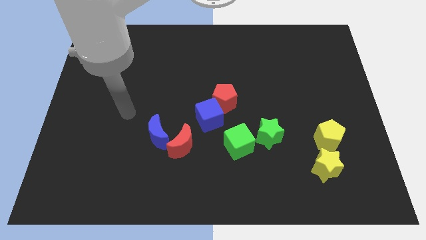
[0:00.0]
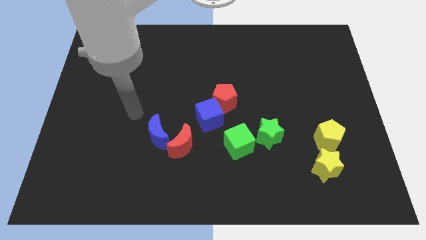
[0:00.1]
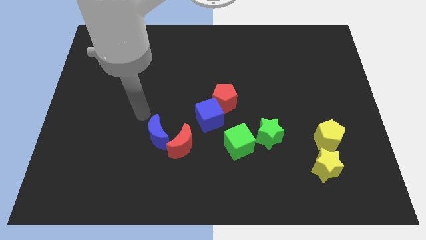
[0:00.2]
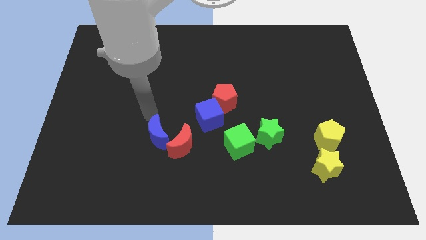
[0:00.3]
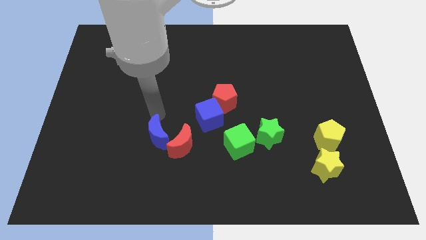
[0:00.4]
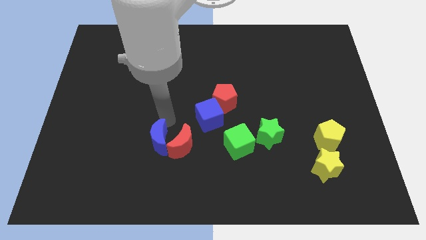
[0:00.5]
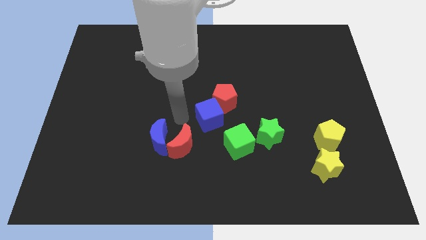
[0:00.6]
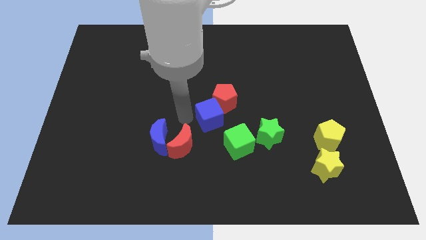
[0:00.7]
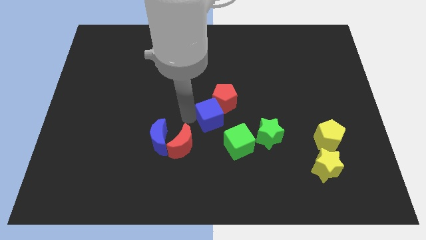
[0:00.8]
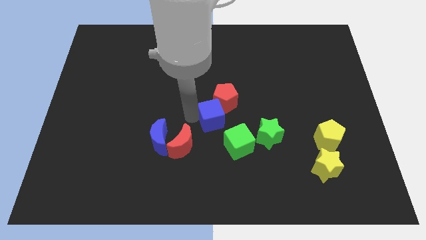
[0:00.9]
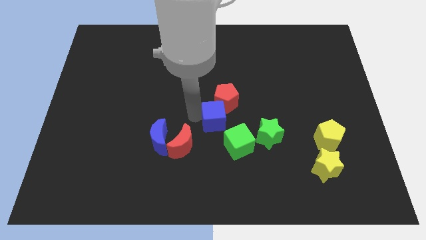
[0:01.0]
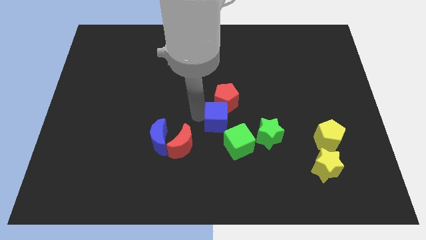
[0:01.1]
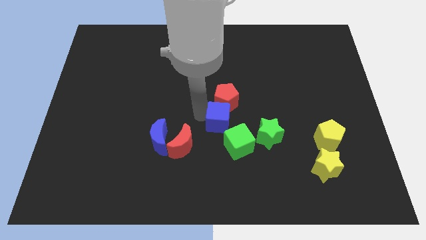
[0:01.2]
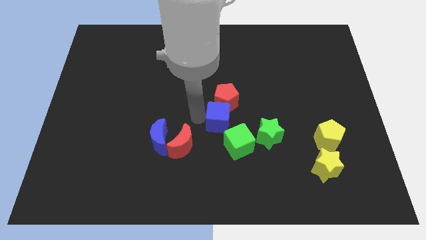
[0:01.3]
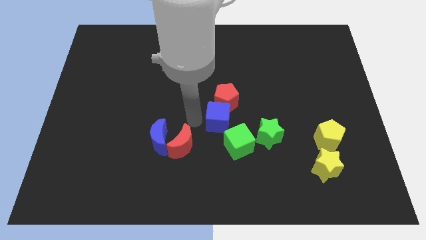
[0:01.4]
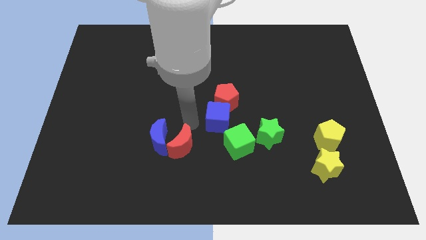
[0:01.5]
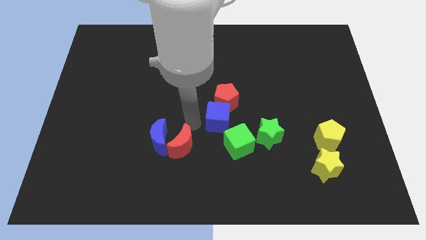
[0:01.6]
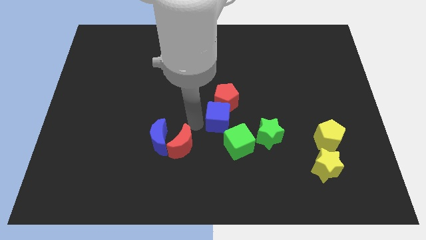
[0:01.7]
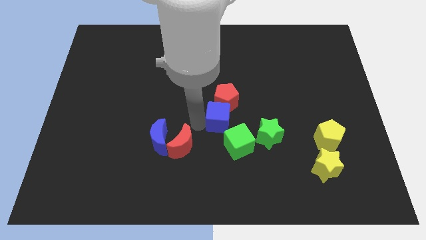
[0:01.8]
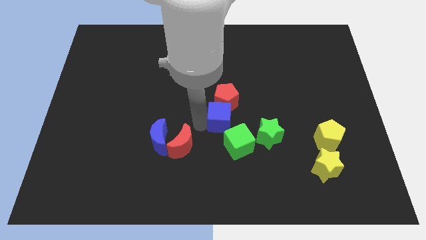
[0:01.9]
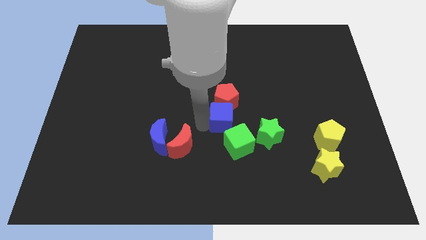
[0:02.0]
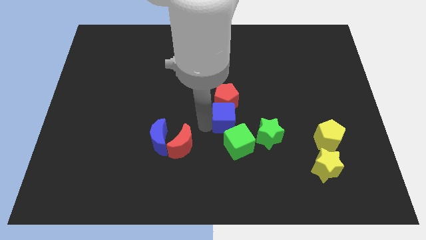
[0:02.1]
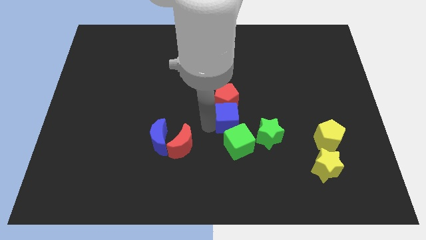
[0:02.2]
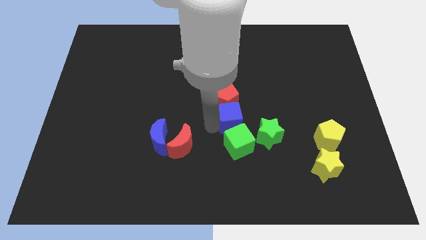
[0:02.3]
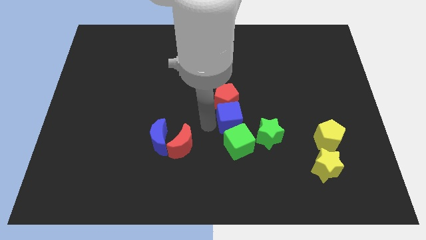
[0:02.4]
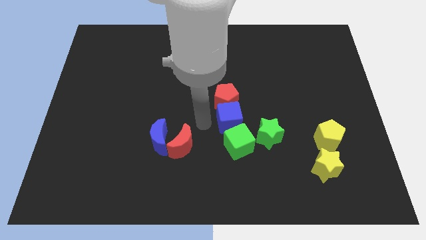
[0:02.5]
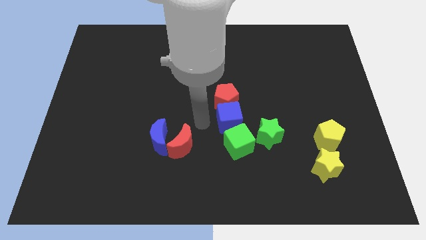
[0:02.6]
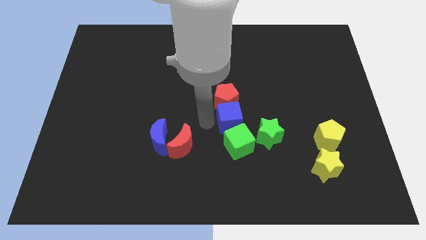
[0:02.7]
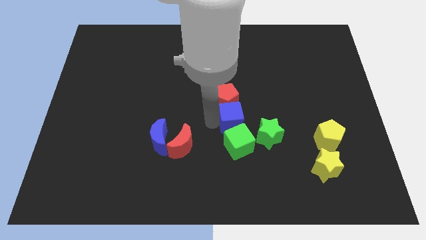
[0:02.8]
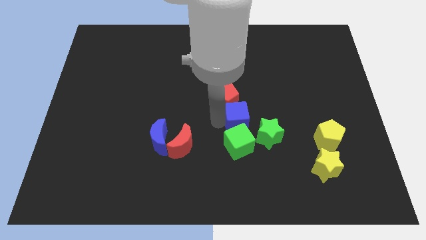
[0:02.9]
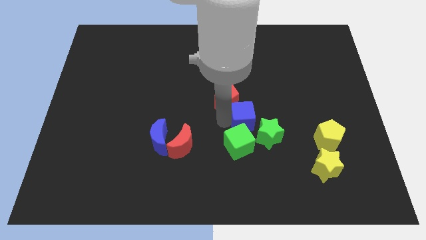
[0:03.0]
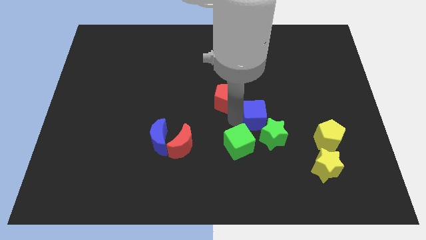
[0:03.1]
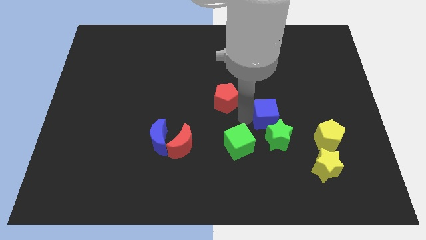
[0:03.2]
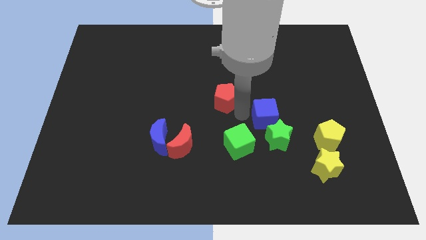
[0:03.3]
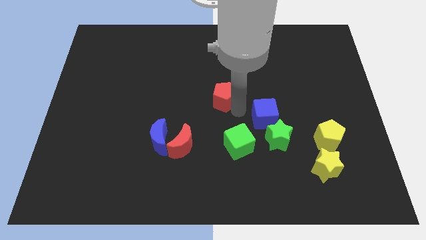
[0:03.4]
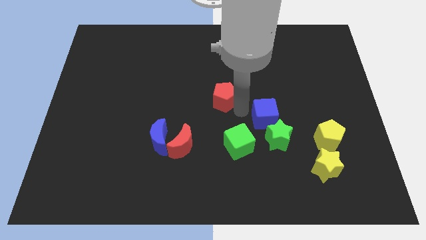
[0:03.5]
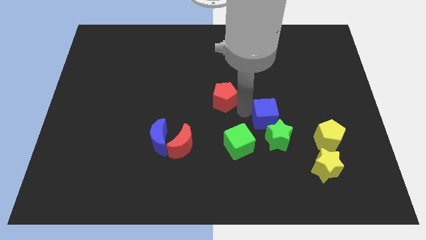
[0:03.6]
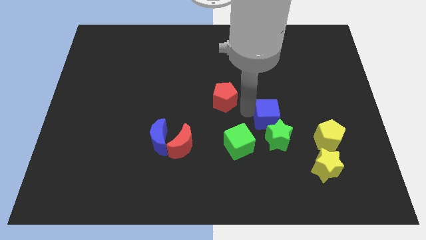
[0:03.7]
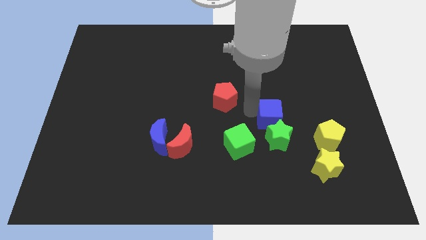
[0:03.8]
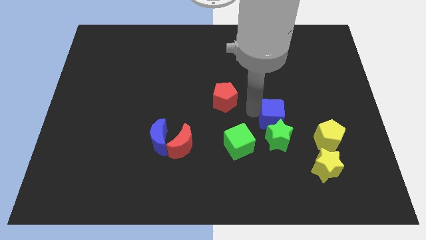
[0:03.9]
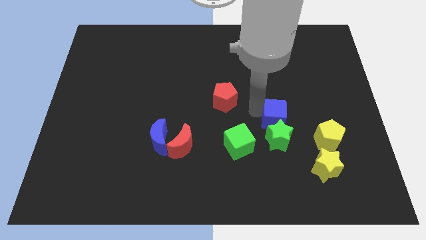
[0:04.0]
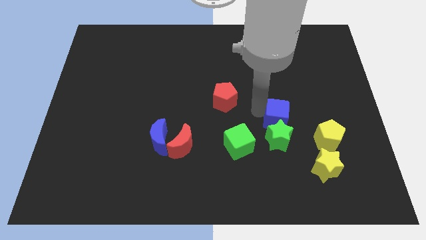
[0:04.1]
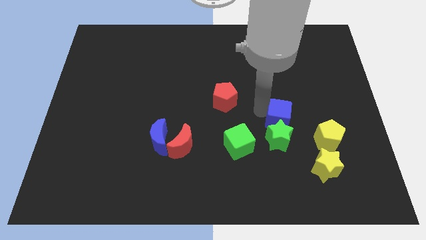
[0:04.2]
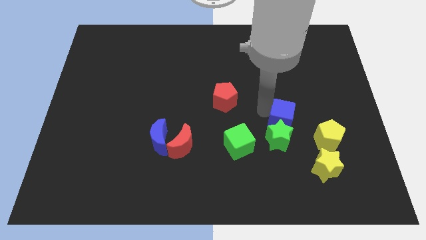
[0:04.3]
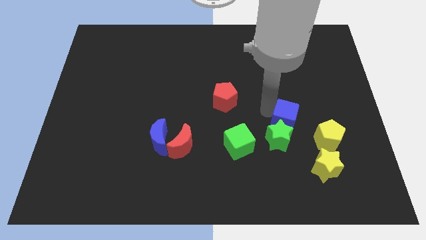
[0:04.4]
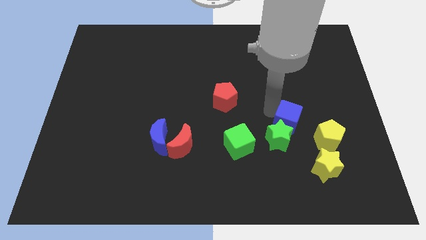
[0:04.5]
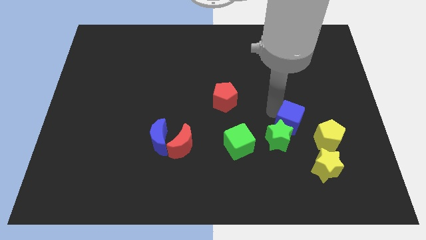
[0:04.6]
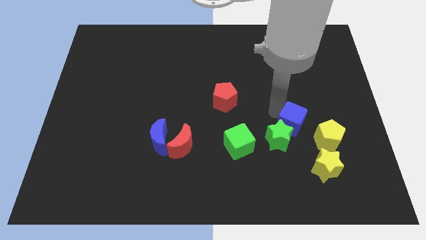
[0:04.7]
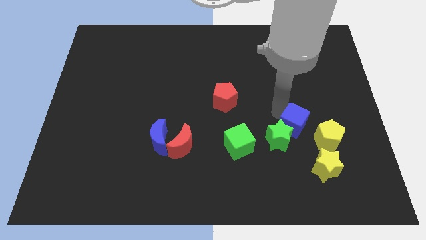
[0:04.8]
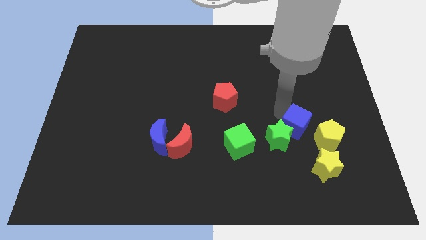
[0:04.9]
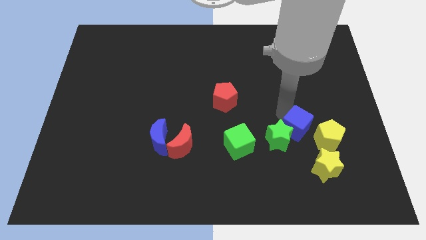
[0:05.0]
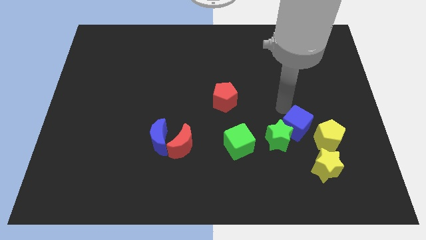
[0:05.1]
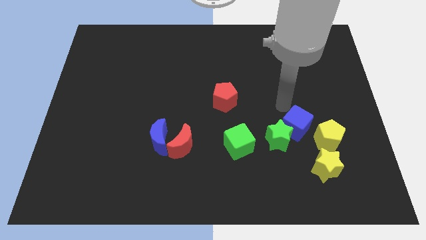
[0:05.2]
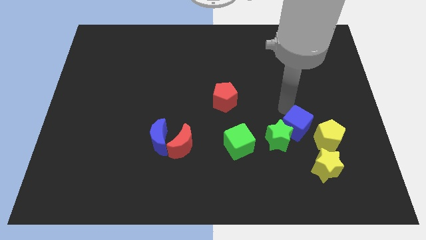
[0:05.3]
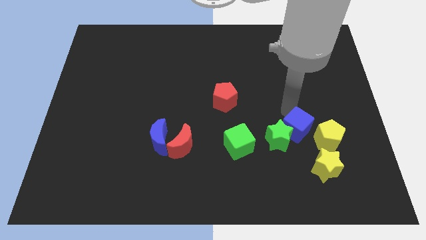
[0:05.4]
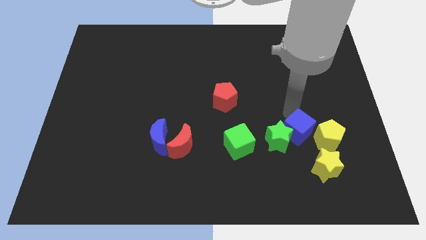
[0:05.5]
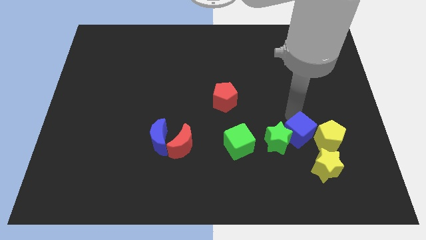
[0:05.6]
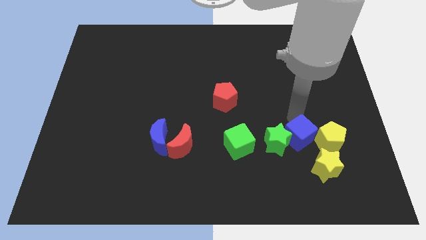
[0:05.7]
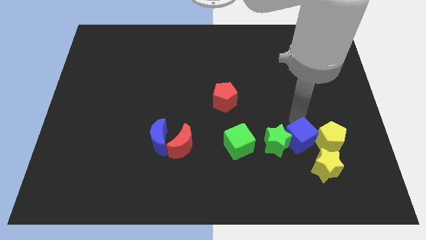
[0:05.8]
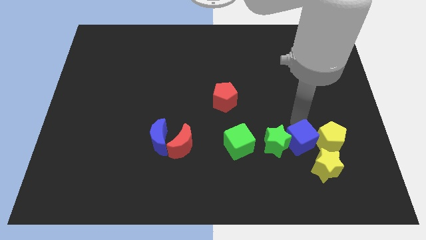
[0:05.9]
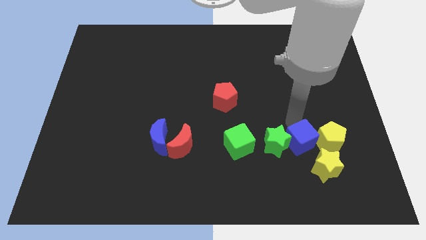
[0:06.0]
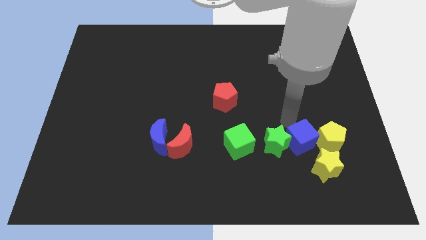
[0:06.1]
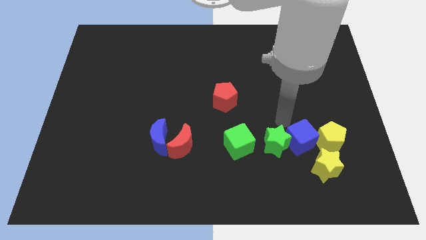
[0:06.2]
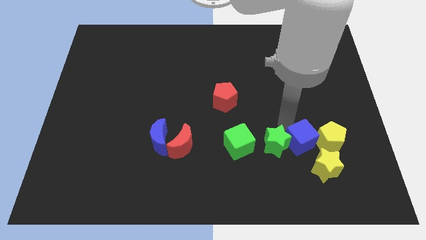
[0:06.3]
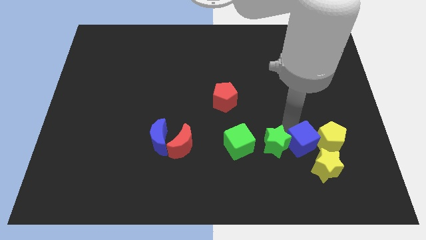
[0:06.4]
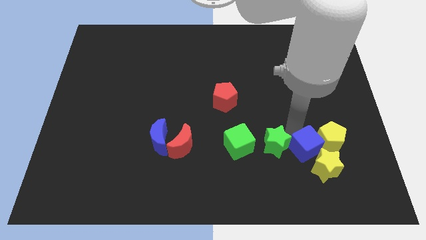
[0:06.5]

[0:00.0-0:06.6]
push the blue cube close to the yellow star
